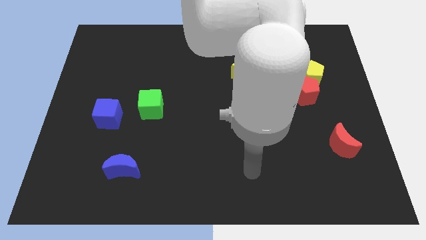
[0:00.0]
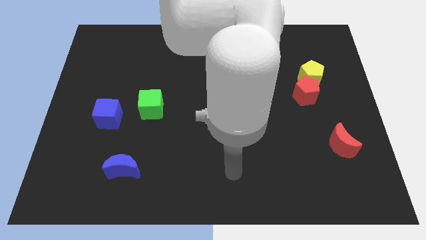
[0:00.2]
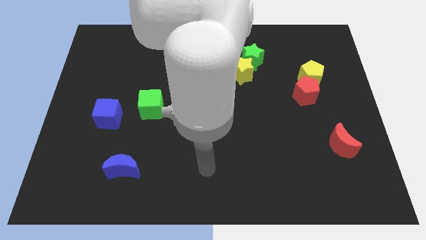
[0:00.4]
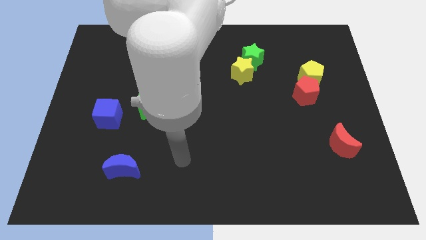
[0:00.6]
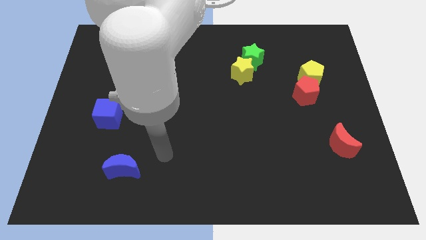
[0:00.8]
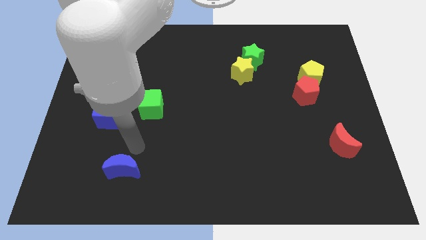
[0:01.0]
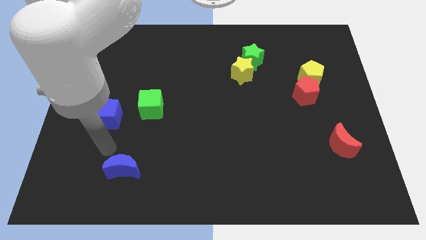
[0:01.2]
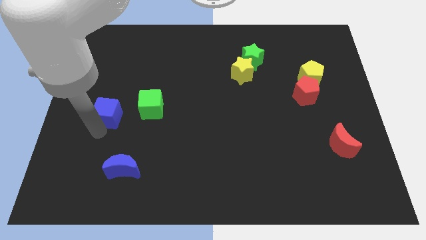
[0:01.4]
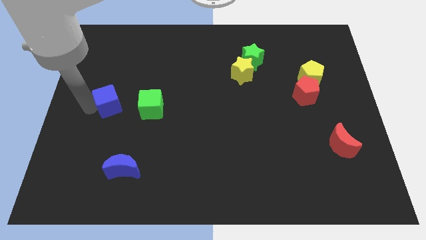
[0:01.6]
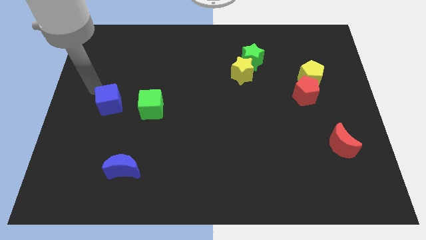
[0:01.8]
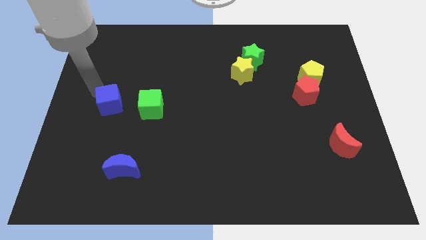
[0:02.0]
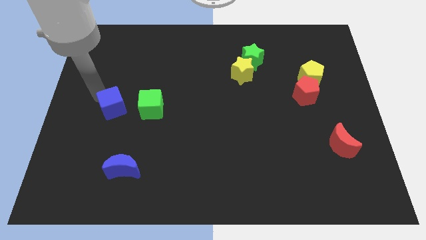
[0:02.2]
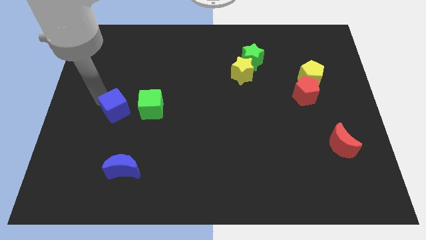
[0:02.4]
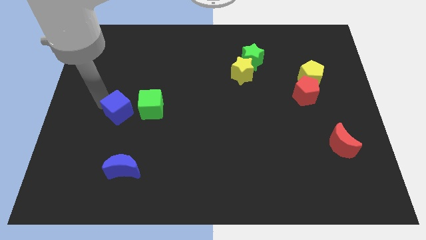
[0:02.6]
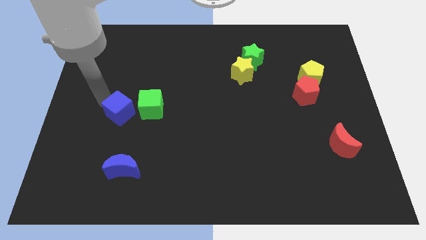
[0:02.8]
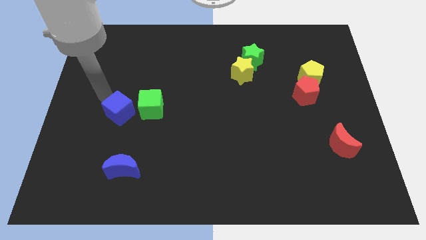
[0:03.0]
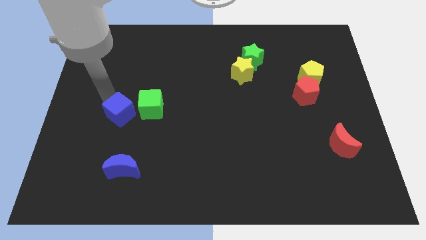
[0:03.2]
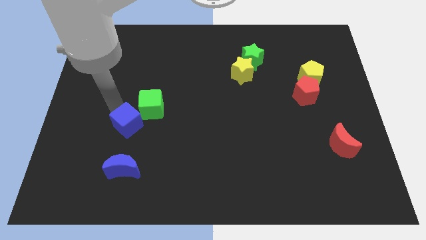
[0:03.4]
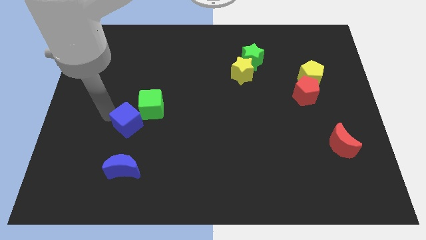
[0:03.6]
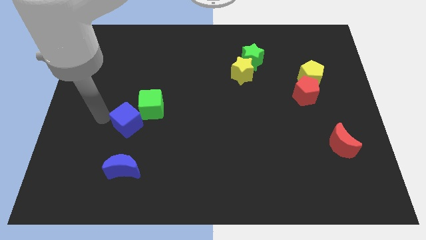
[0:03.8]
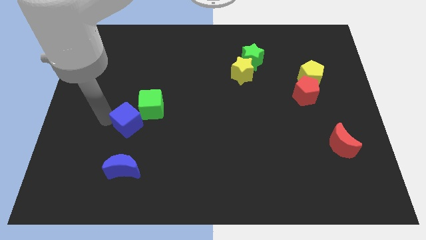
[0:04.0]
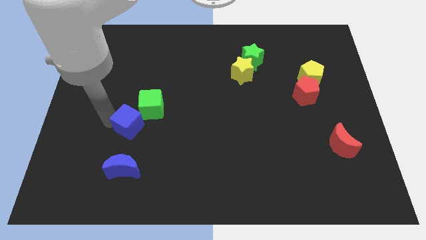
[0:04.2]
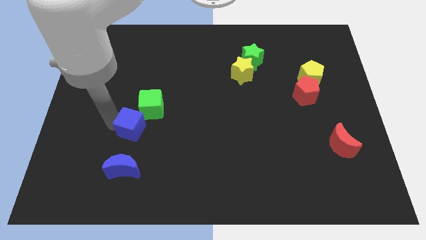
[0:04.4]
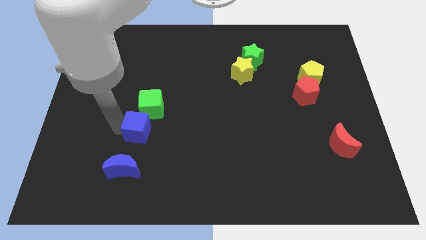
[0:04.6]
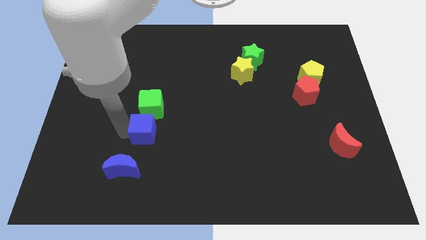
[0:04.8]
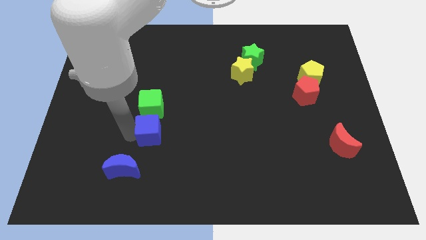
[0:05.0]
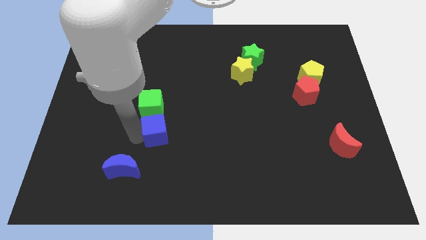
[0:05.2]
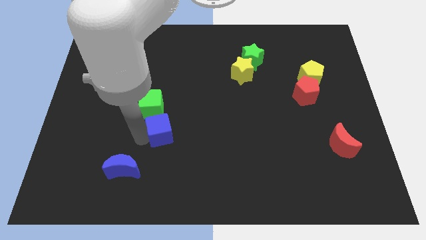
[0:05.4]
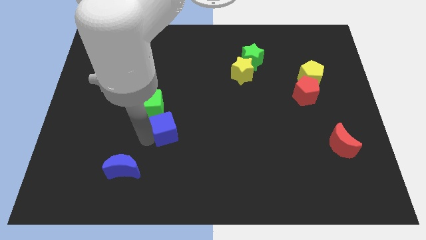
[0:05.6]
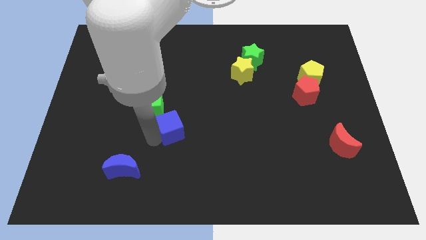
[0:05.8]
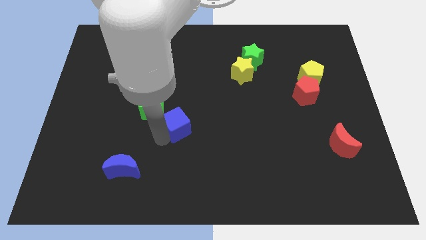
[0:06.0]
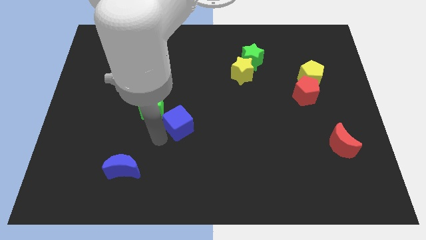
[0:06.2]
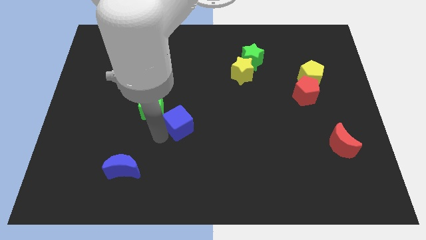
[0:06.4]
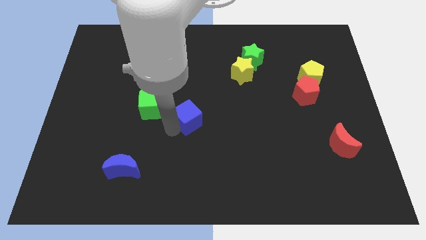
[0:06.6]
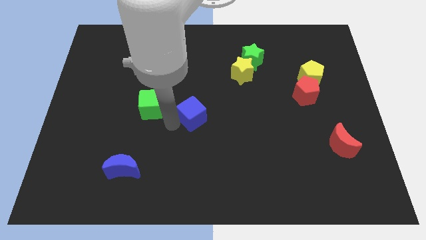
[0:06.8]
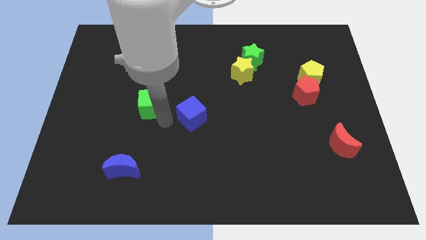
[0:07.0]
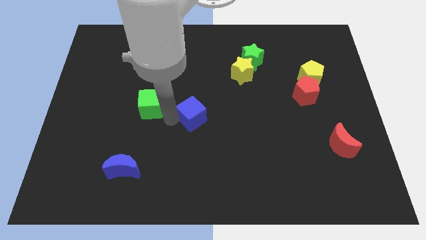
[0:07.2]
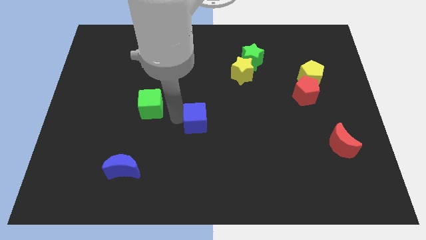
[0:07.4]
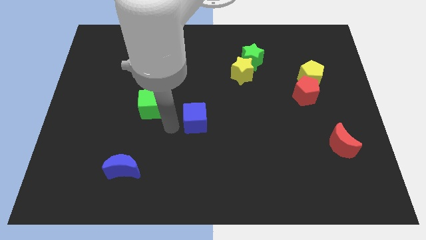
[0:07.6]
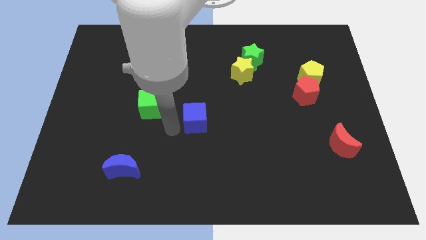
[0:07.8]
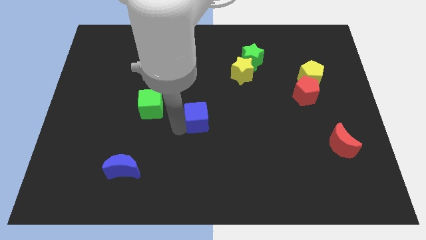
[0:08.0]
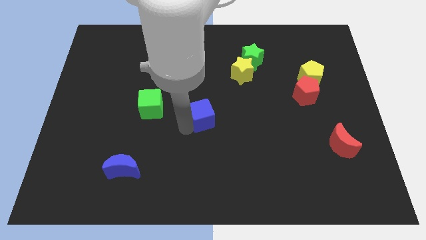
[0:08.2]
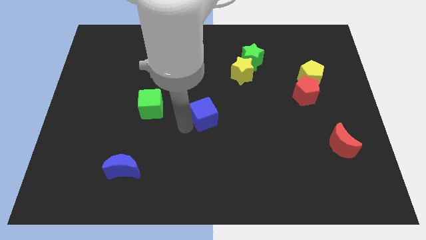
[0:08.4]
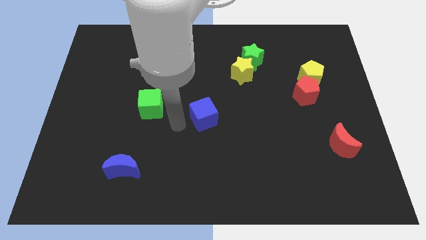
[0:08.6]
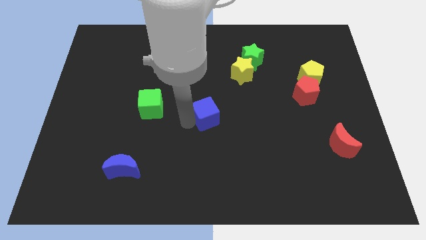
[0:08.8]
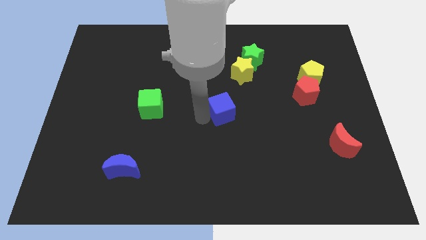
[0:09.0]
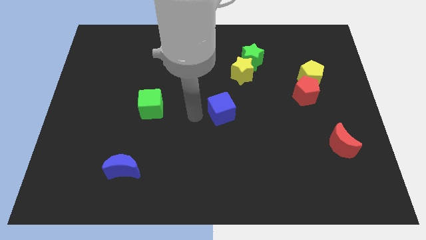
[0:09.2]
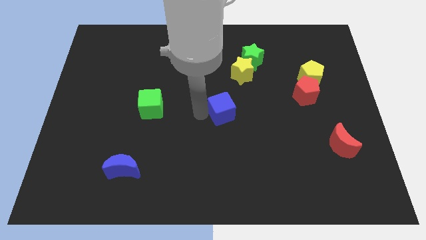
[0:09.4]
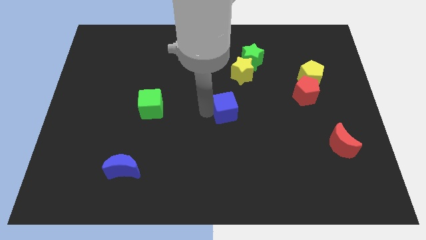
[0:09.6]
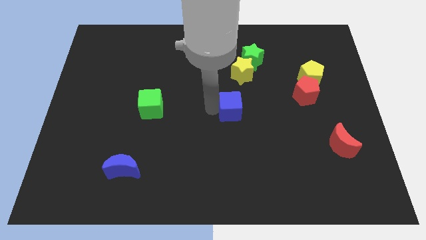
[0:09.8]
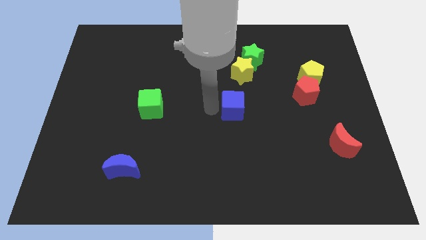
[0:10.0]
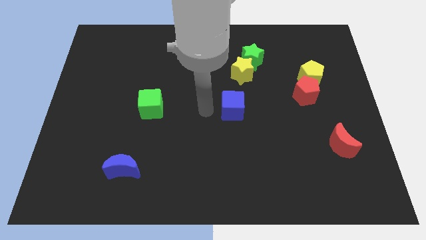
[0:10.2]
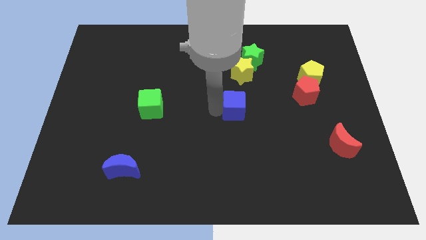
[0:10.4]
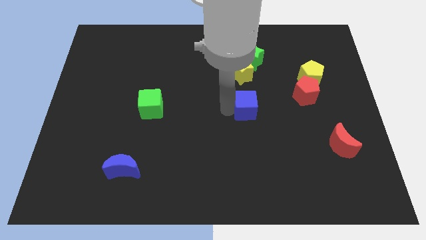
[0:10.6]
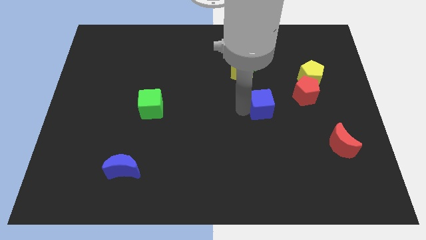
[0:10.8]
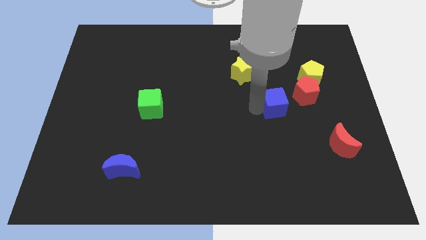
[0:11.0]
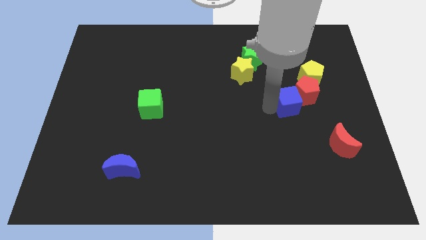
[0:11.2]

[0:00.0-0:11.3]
put the blue cube close to the red pentagon

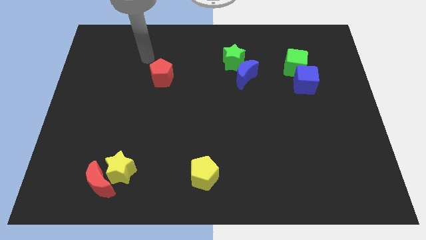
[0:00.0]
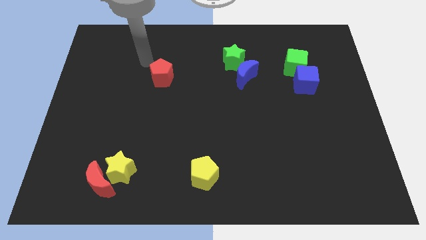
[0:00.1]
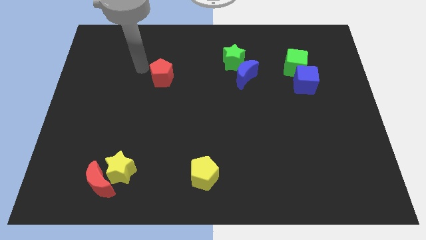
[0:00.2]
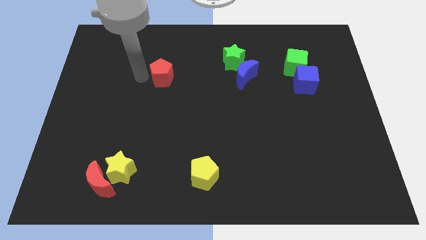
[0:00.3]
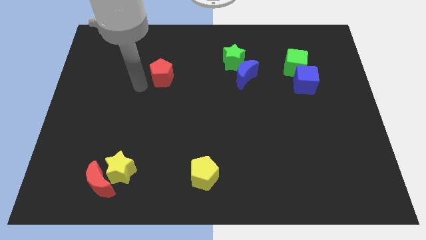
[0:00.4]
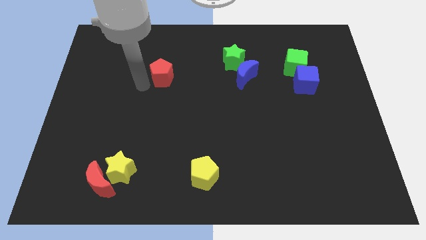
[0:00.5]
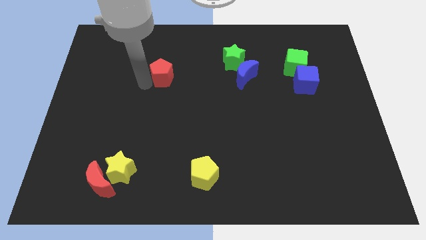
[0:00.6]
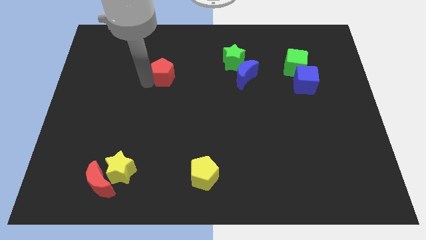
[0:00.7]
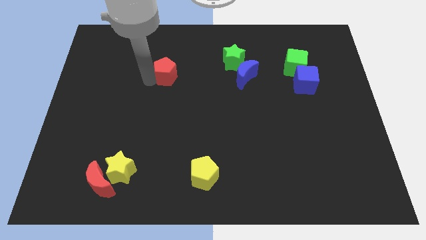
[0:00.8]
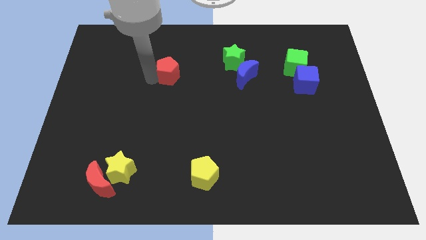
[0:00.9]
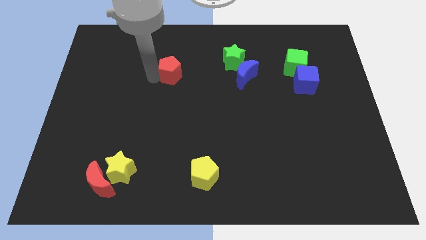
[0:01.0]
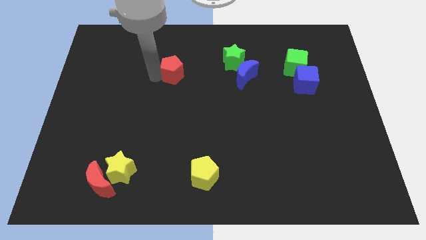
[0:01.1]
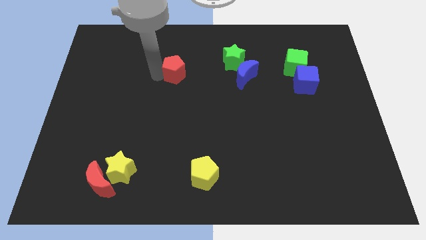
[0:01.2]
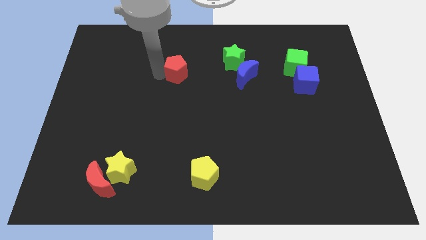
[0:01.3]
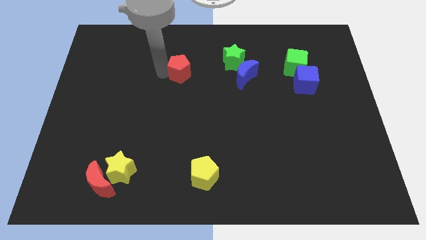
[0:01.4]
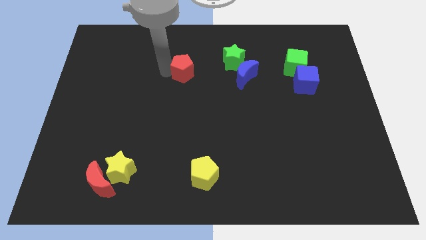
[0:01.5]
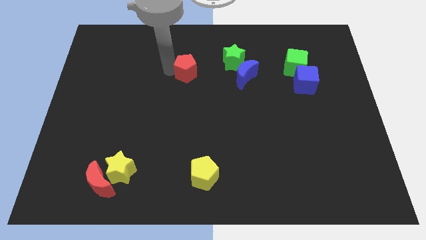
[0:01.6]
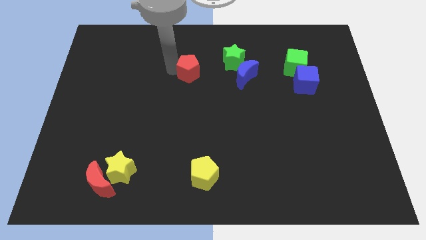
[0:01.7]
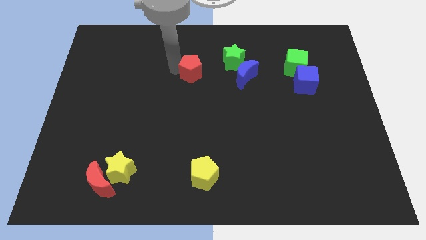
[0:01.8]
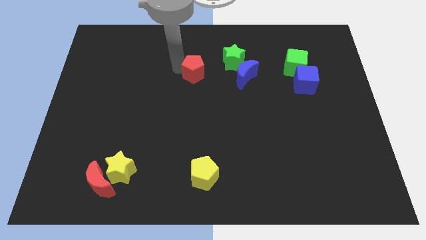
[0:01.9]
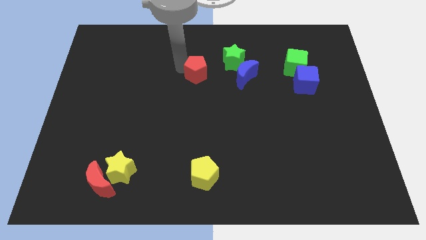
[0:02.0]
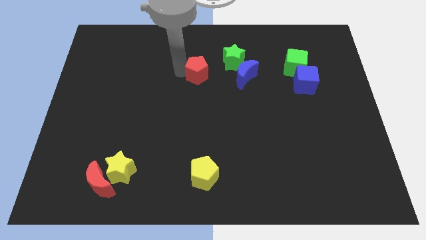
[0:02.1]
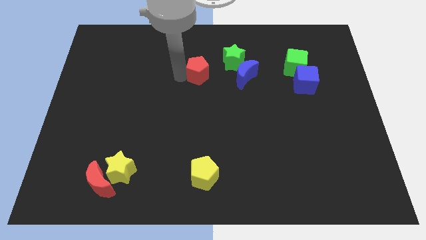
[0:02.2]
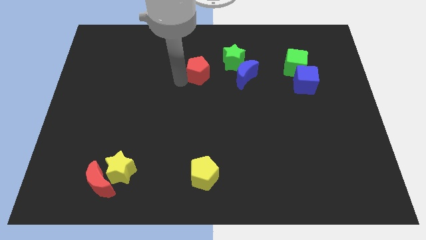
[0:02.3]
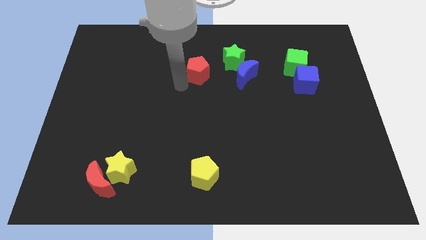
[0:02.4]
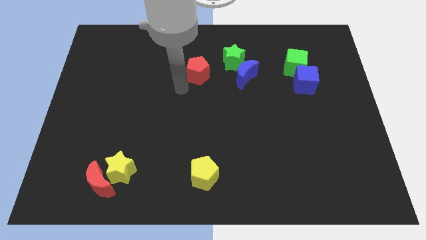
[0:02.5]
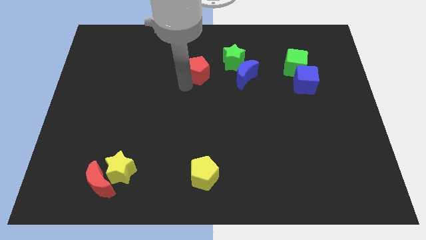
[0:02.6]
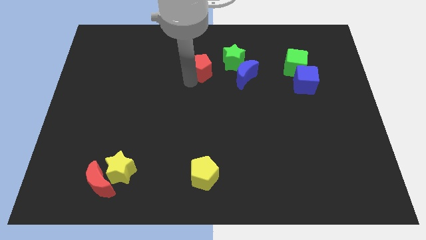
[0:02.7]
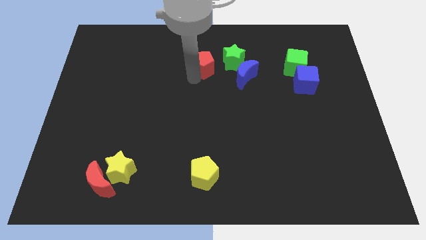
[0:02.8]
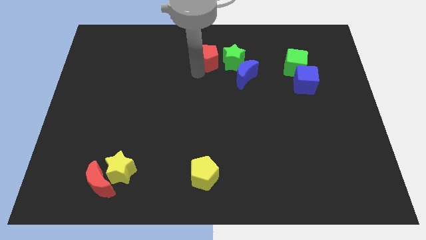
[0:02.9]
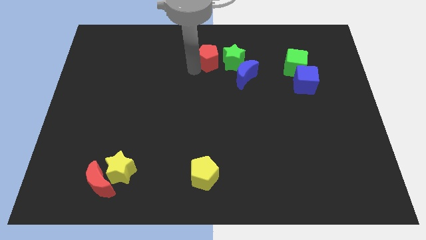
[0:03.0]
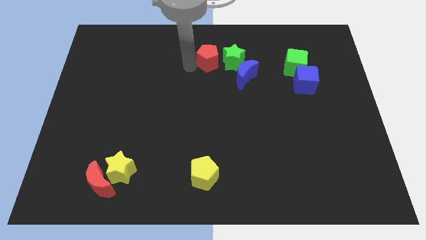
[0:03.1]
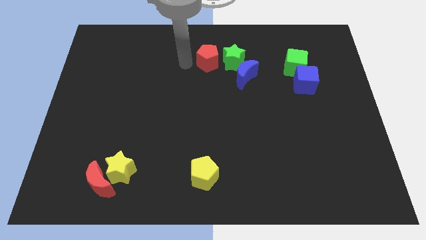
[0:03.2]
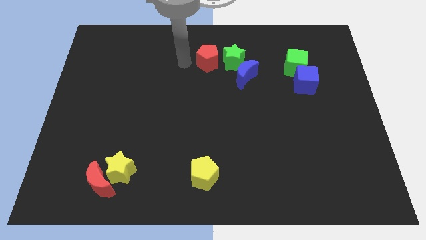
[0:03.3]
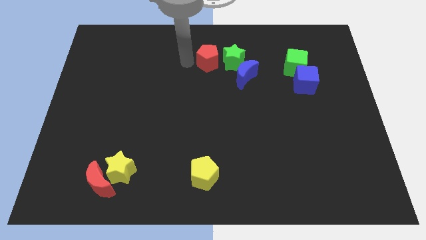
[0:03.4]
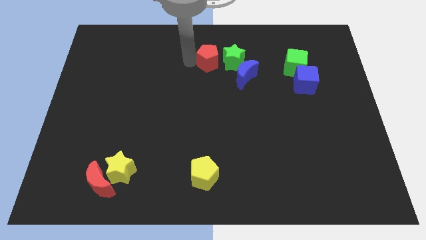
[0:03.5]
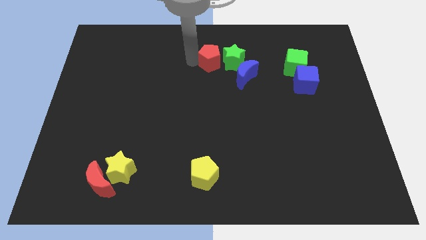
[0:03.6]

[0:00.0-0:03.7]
put the red pentagon close to the green star
